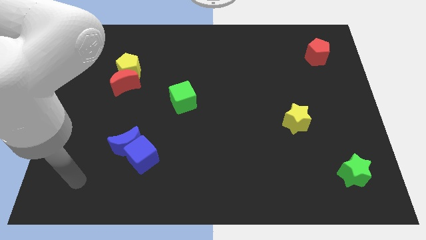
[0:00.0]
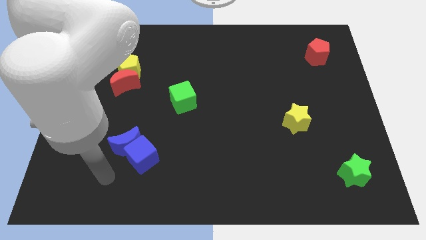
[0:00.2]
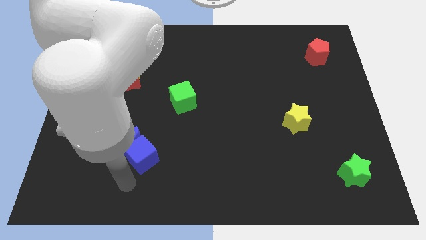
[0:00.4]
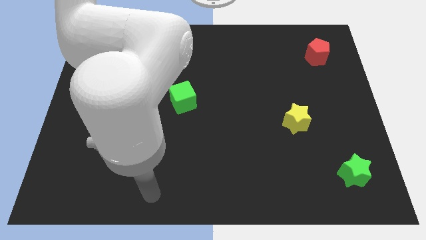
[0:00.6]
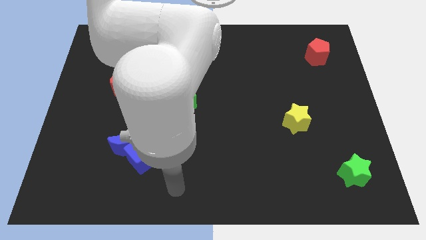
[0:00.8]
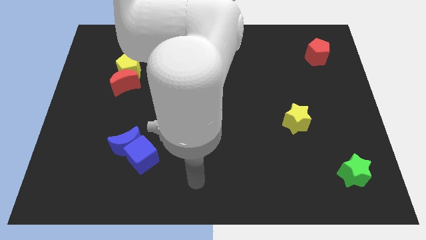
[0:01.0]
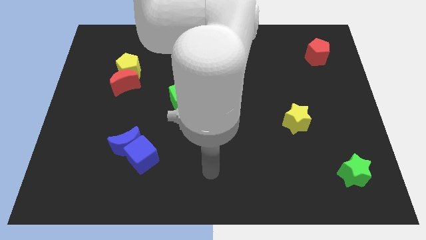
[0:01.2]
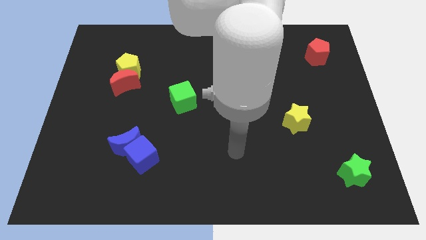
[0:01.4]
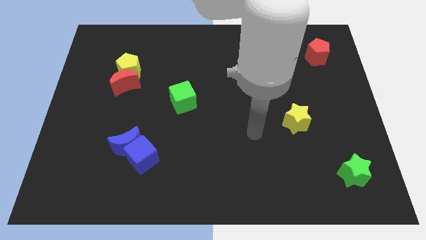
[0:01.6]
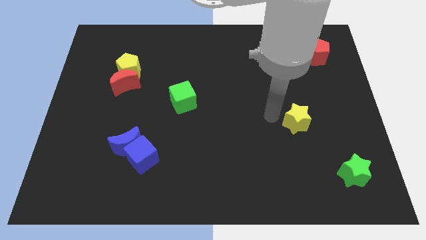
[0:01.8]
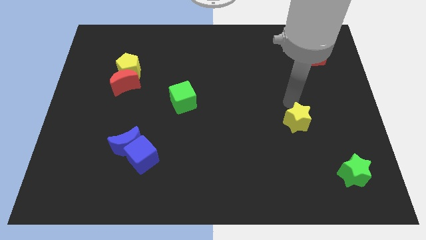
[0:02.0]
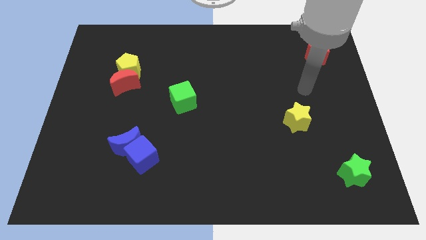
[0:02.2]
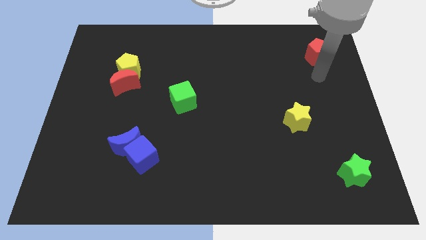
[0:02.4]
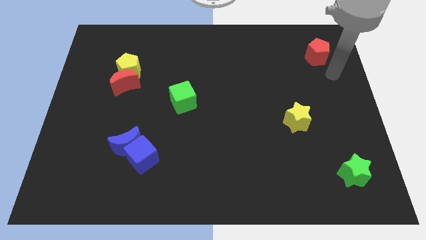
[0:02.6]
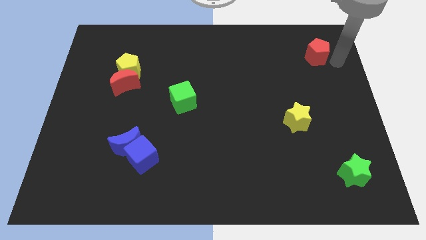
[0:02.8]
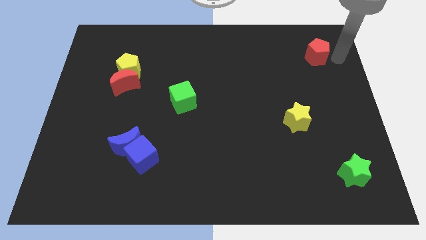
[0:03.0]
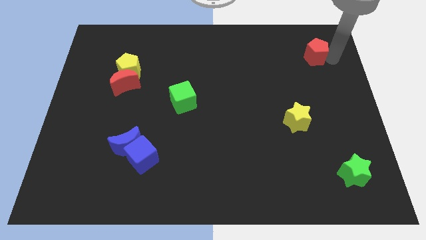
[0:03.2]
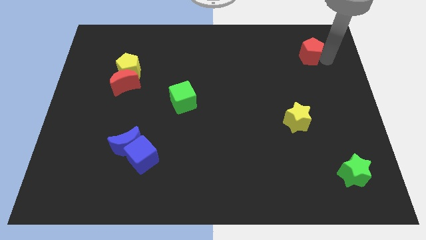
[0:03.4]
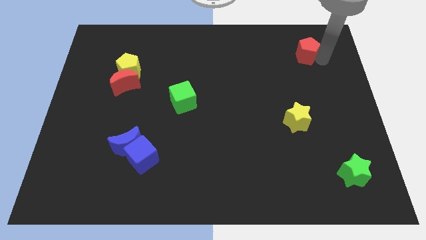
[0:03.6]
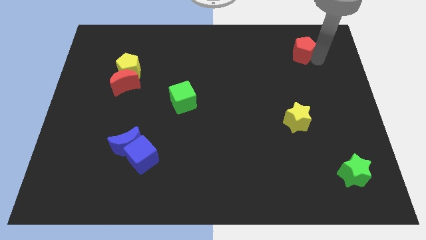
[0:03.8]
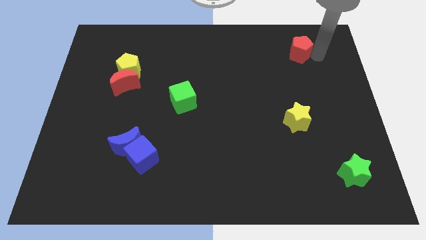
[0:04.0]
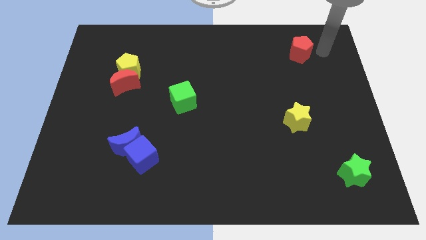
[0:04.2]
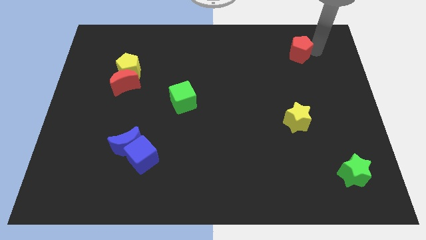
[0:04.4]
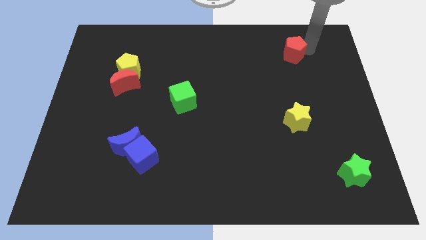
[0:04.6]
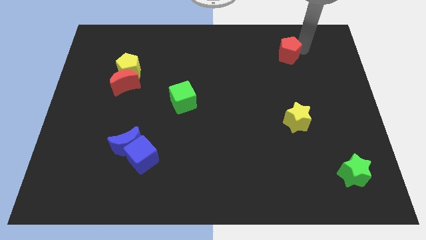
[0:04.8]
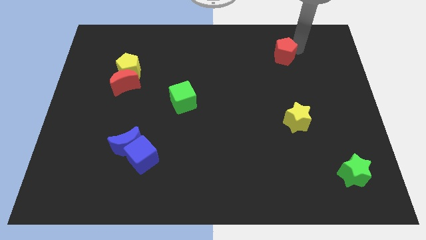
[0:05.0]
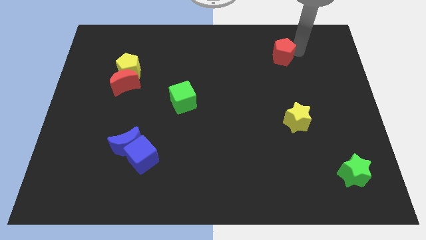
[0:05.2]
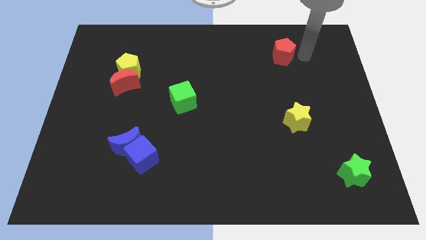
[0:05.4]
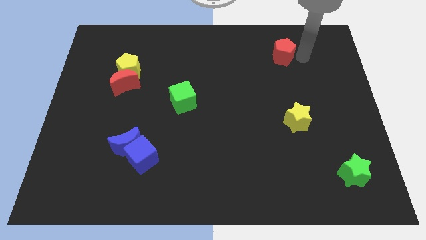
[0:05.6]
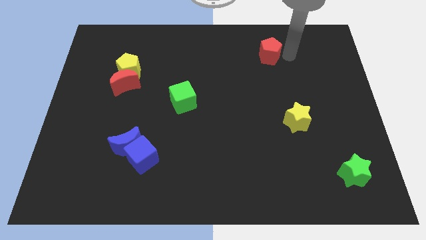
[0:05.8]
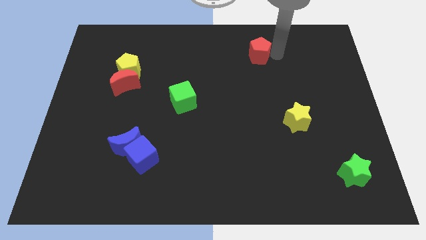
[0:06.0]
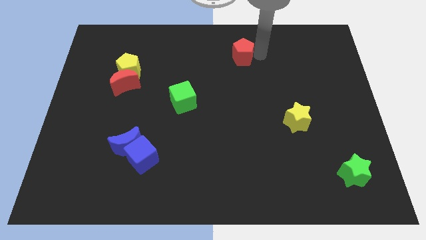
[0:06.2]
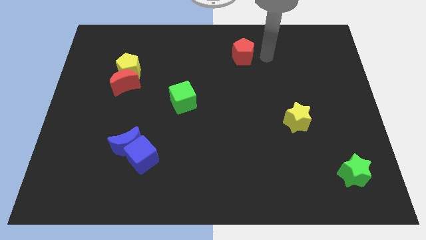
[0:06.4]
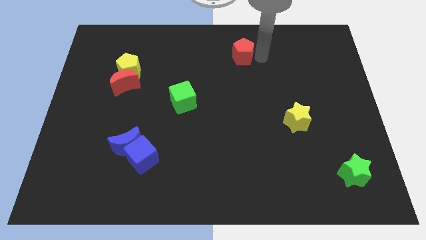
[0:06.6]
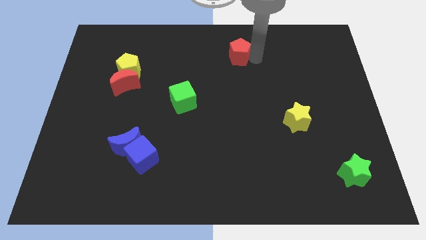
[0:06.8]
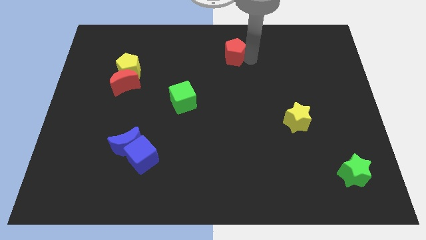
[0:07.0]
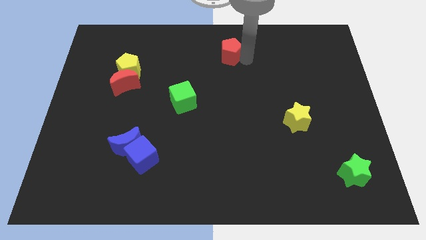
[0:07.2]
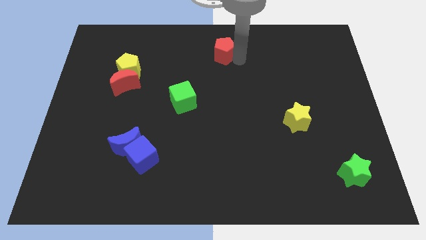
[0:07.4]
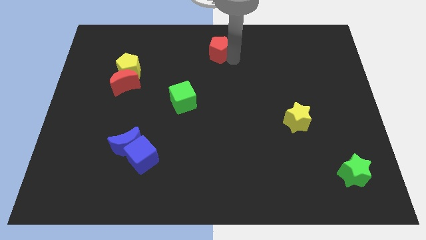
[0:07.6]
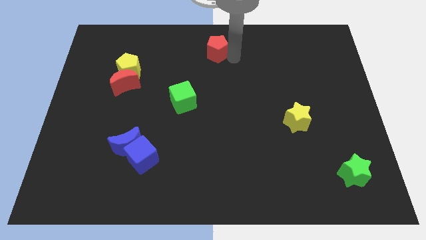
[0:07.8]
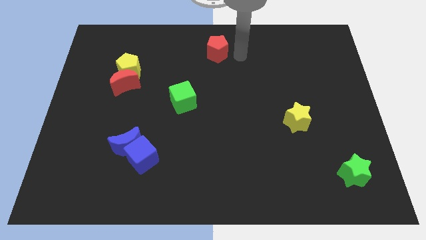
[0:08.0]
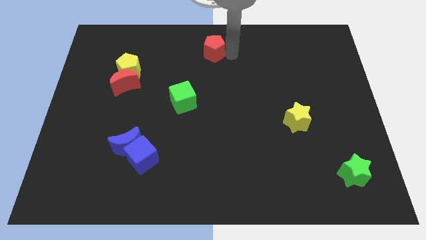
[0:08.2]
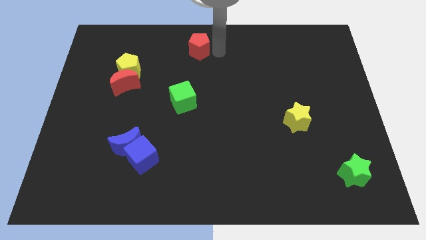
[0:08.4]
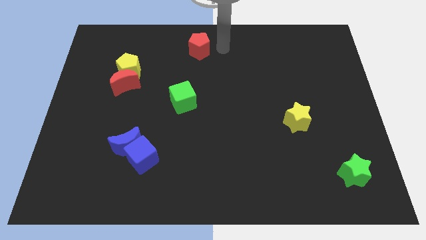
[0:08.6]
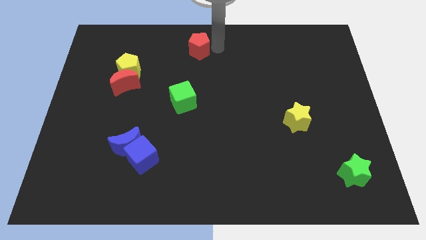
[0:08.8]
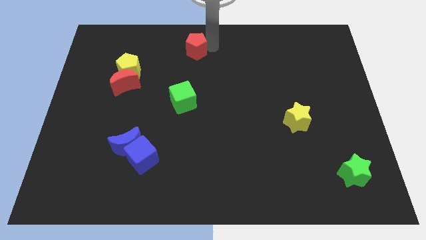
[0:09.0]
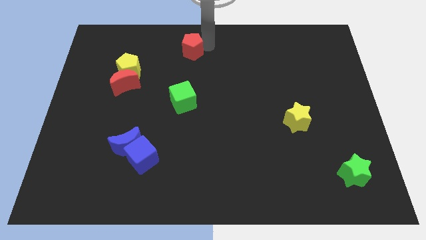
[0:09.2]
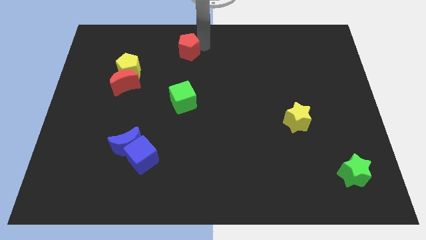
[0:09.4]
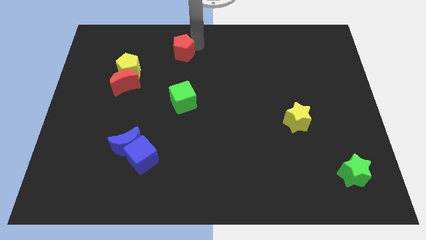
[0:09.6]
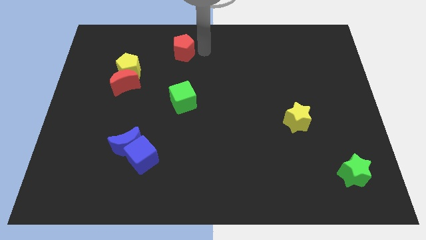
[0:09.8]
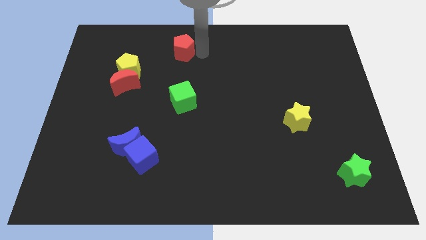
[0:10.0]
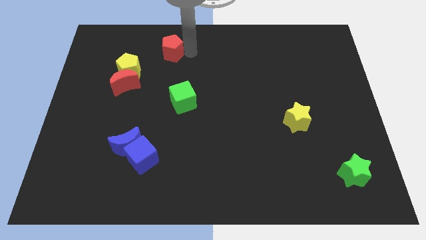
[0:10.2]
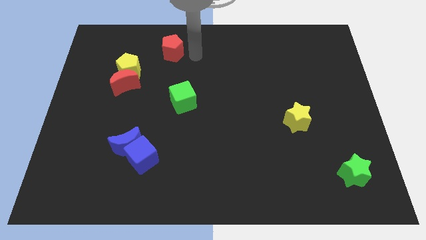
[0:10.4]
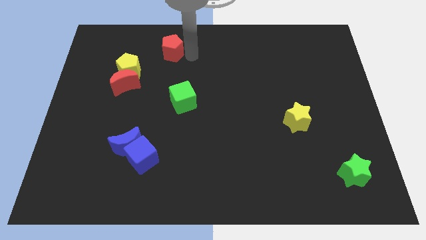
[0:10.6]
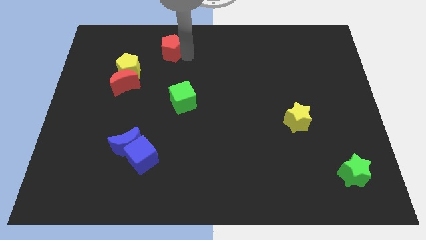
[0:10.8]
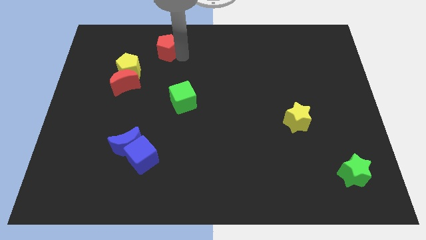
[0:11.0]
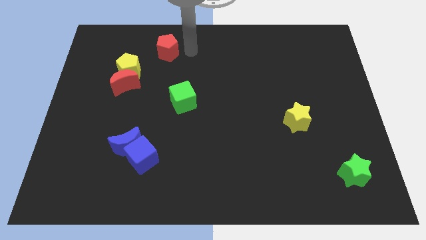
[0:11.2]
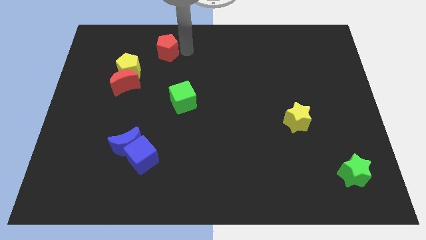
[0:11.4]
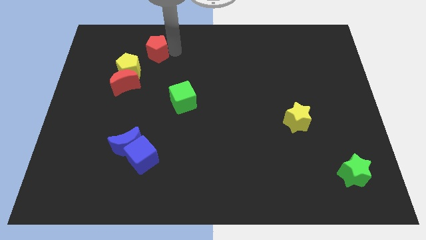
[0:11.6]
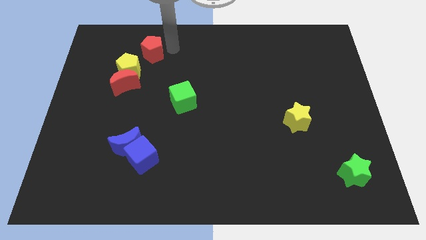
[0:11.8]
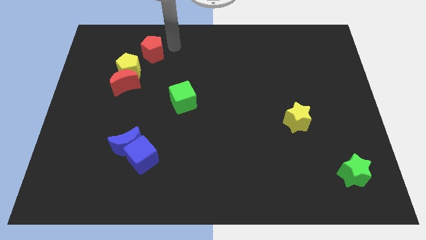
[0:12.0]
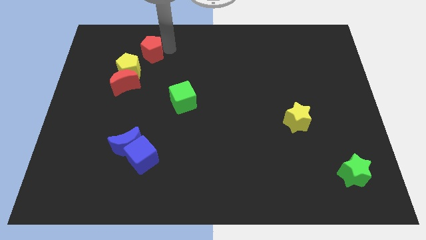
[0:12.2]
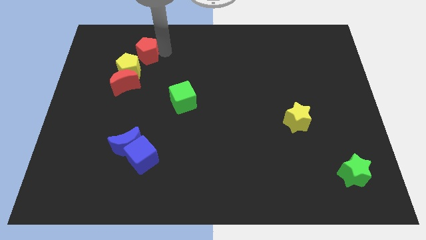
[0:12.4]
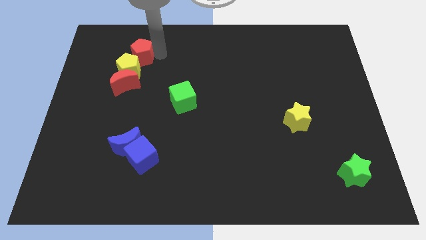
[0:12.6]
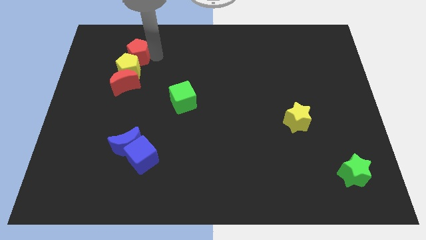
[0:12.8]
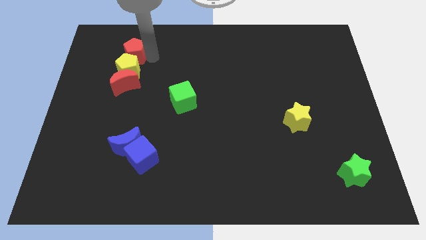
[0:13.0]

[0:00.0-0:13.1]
slide the red pentagon to the top left of the yellow pentagon

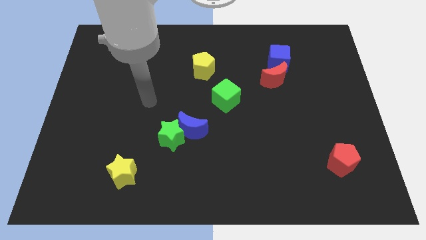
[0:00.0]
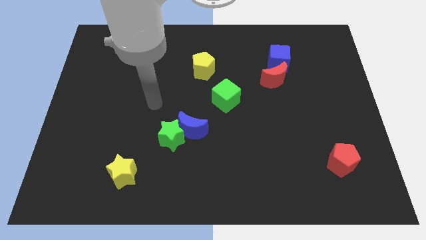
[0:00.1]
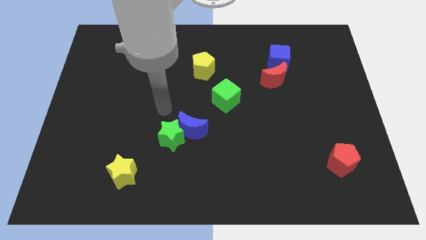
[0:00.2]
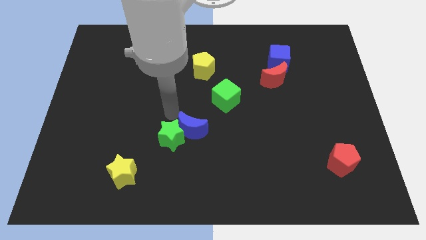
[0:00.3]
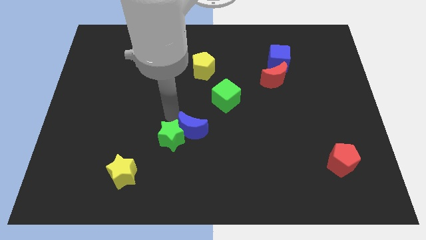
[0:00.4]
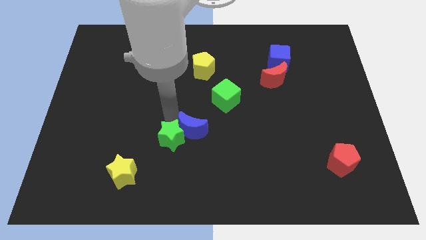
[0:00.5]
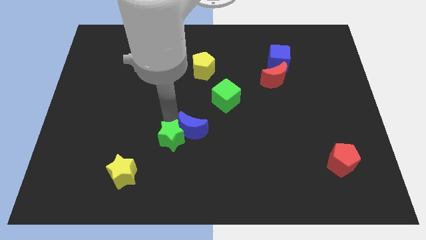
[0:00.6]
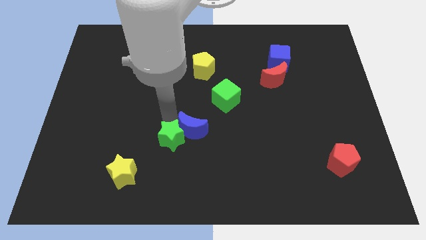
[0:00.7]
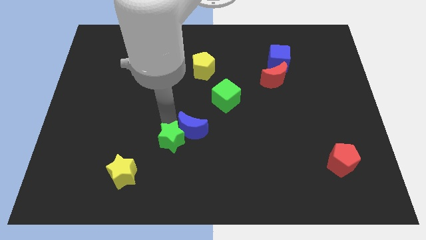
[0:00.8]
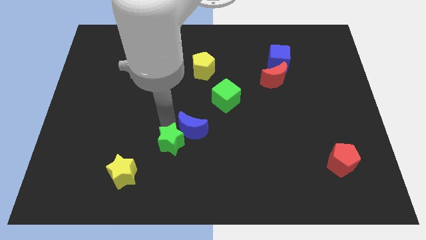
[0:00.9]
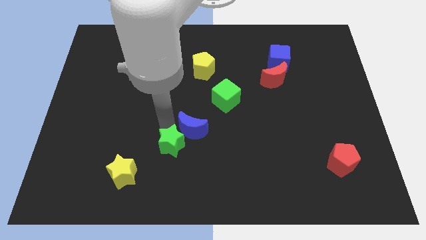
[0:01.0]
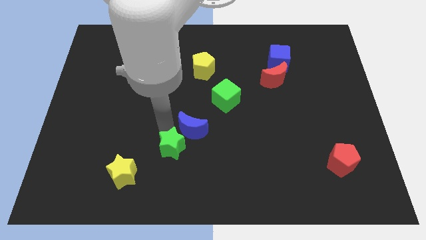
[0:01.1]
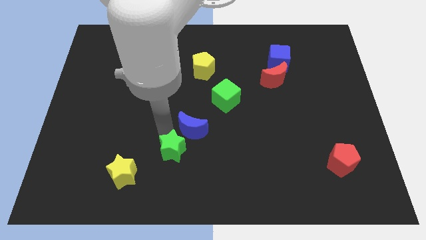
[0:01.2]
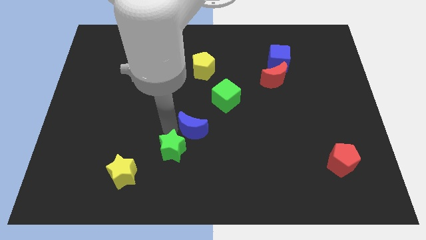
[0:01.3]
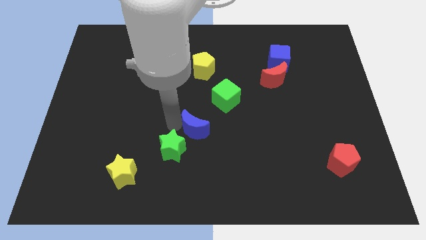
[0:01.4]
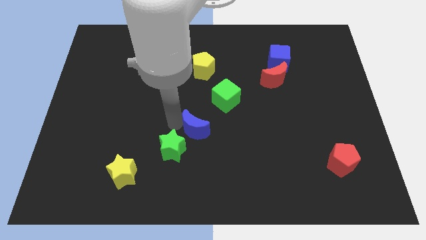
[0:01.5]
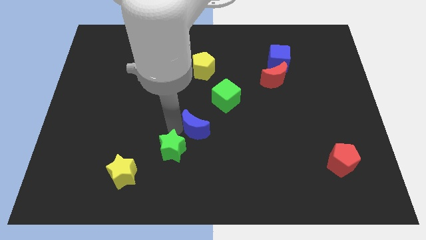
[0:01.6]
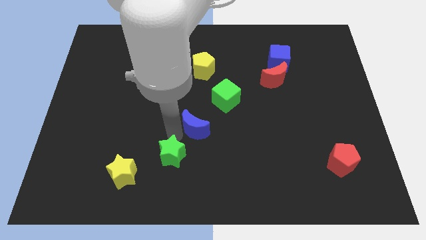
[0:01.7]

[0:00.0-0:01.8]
move the green star to the right of the yellow star
